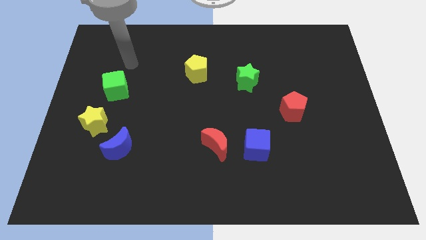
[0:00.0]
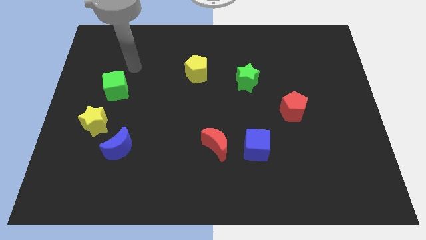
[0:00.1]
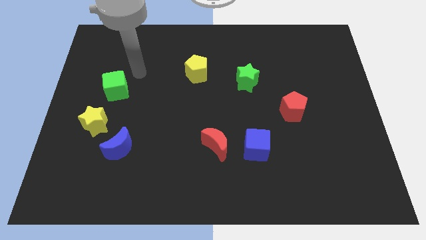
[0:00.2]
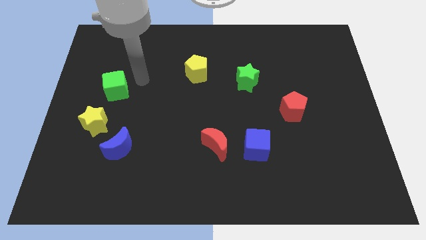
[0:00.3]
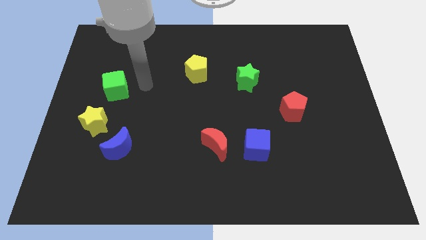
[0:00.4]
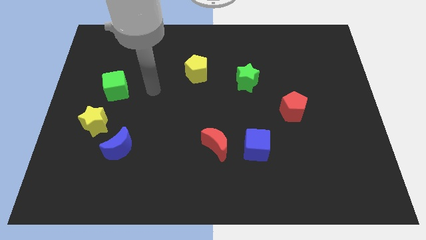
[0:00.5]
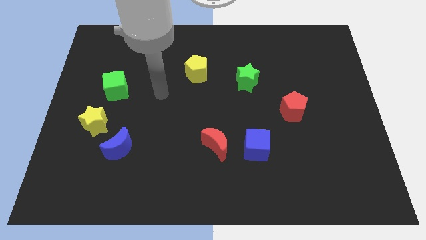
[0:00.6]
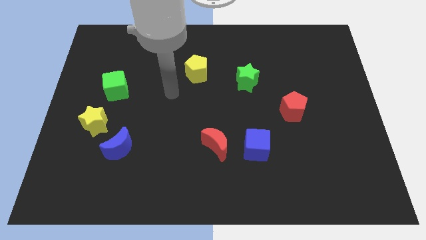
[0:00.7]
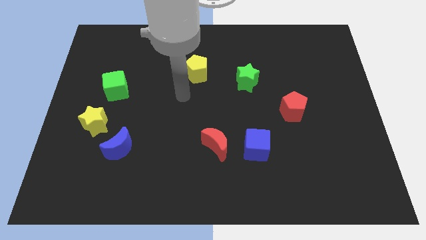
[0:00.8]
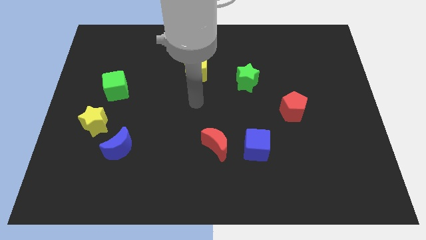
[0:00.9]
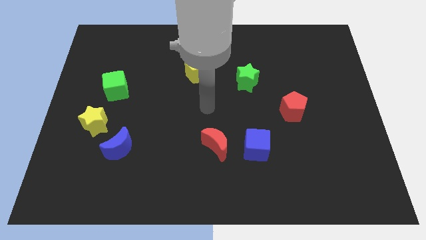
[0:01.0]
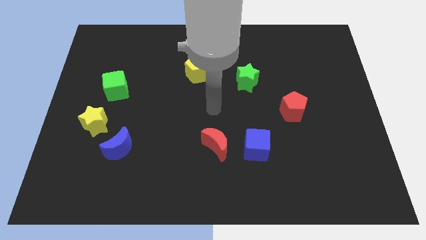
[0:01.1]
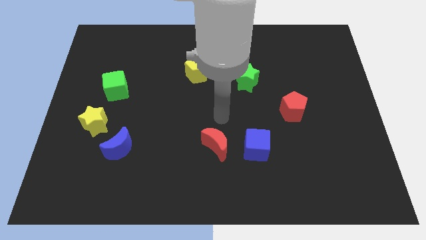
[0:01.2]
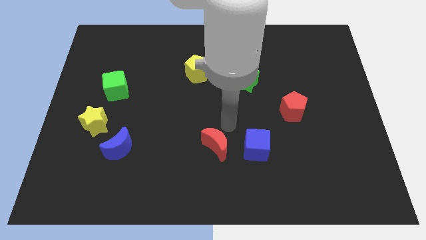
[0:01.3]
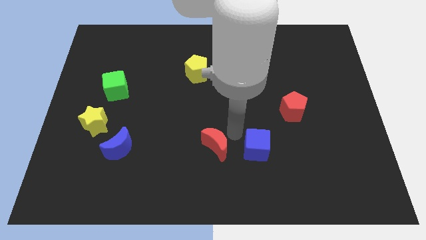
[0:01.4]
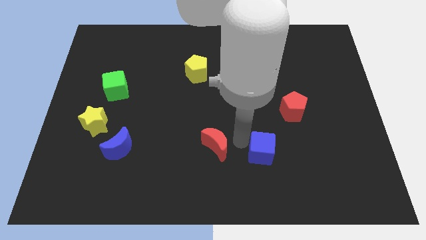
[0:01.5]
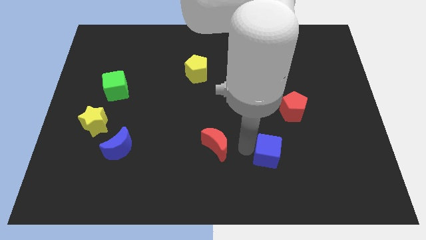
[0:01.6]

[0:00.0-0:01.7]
separate the red moon from the blue cube

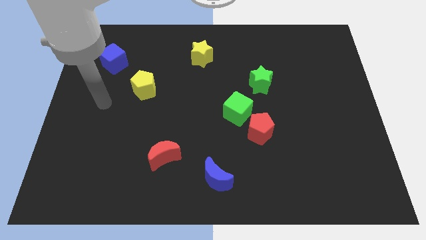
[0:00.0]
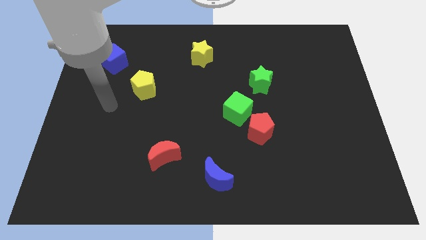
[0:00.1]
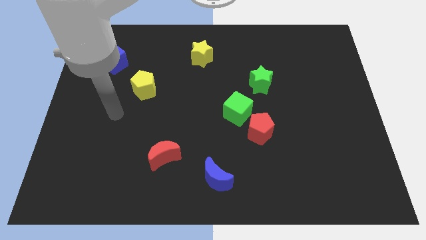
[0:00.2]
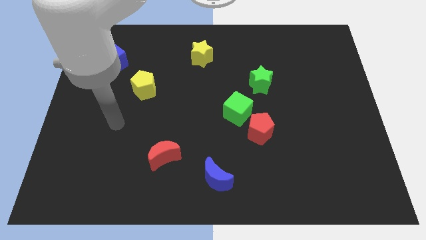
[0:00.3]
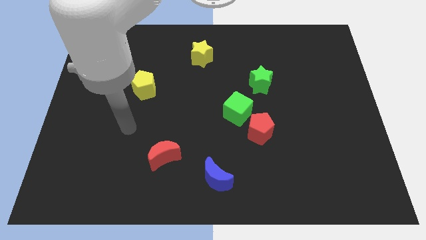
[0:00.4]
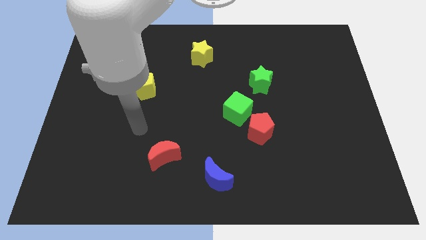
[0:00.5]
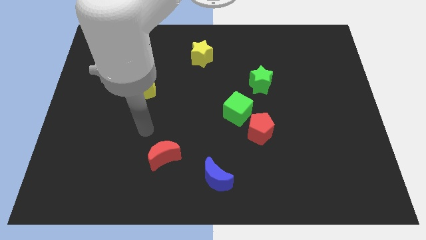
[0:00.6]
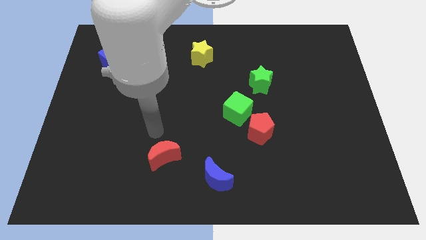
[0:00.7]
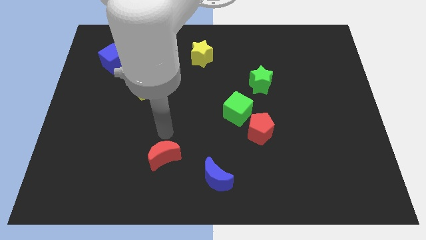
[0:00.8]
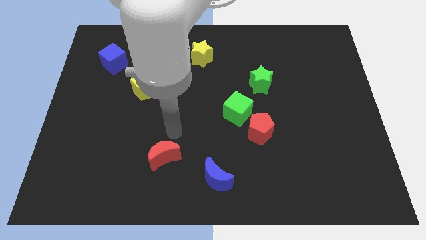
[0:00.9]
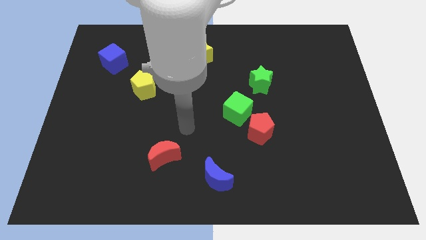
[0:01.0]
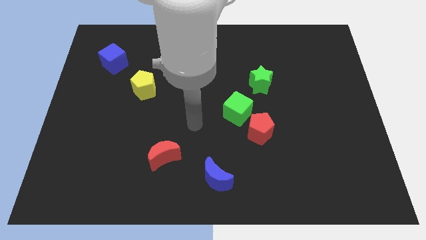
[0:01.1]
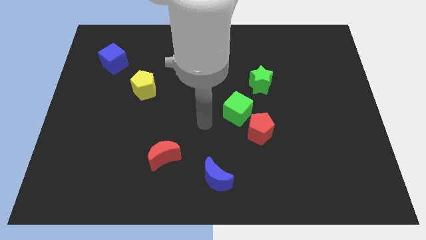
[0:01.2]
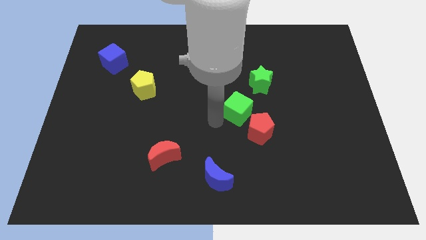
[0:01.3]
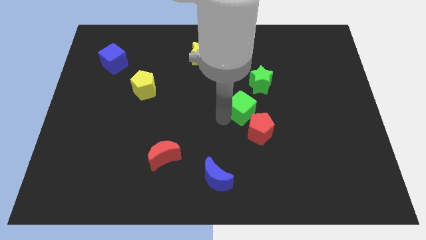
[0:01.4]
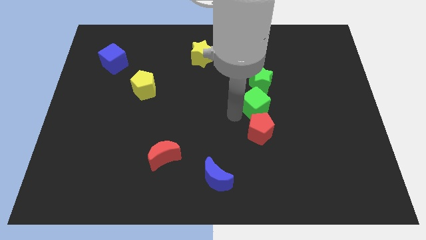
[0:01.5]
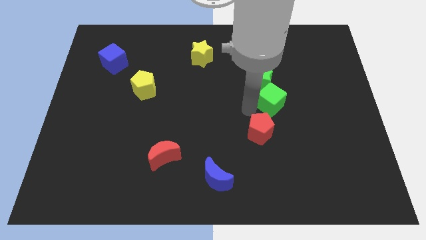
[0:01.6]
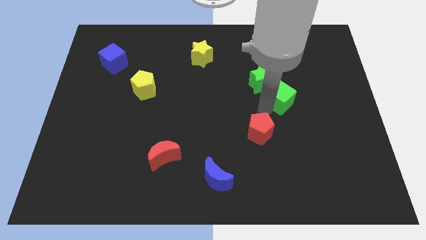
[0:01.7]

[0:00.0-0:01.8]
separate the red pentagon from the green cube

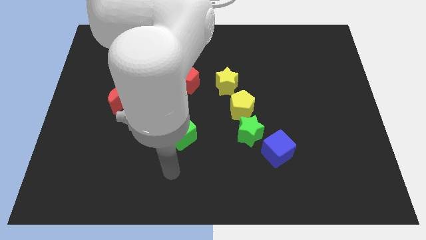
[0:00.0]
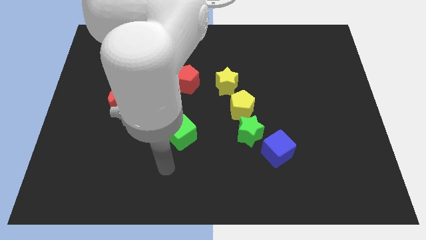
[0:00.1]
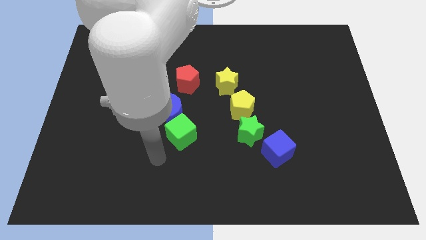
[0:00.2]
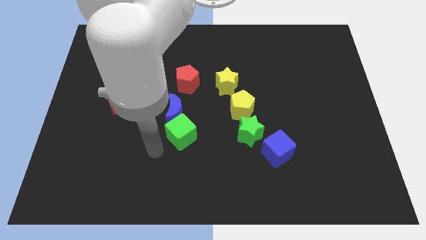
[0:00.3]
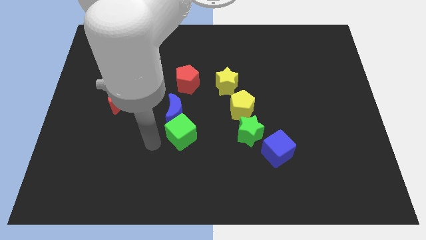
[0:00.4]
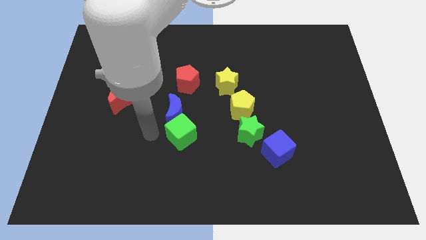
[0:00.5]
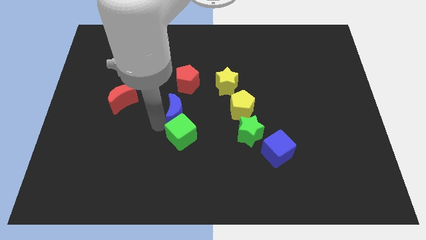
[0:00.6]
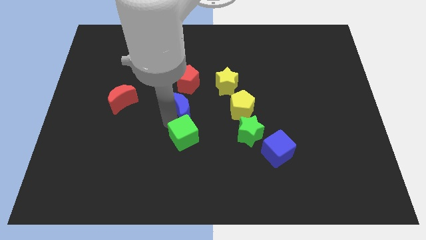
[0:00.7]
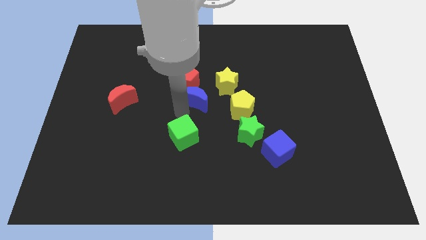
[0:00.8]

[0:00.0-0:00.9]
pull the green cube apart from the blue moon

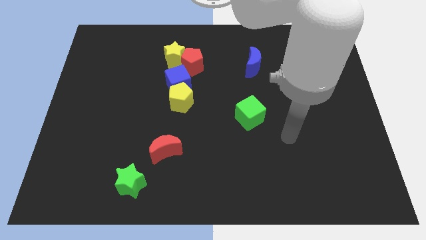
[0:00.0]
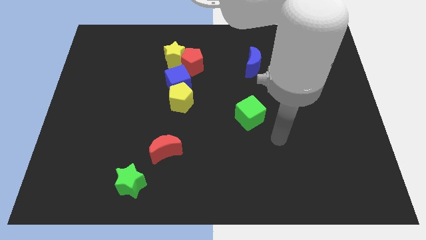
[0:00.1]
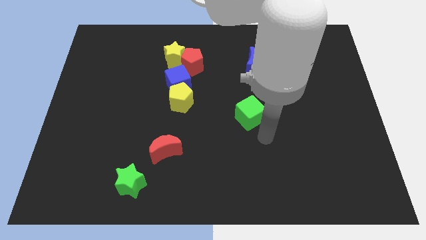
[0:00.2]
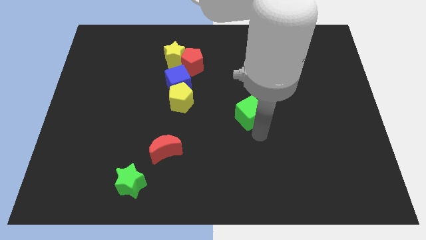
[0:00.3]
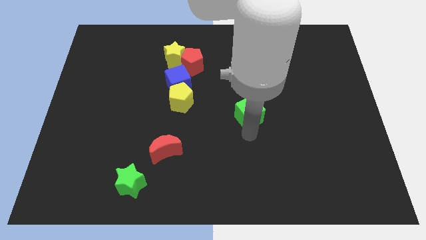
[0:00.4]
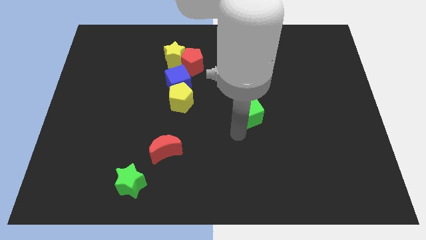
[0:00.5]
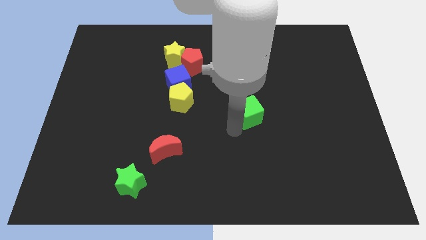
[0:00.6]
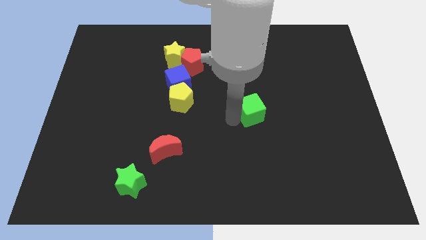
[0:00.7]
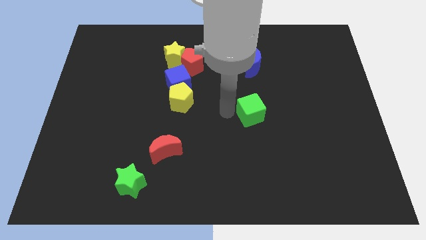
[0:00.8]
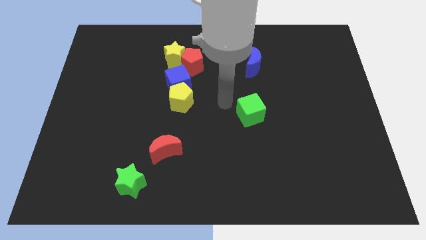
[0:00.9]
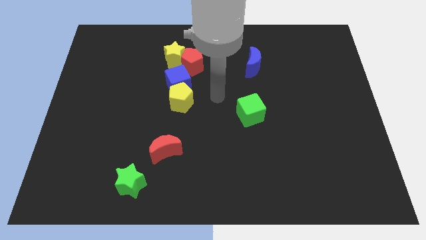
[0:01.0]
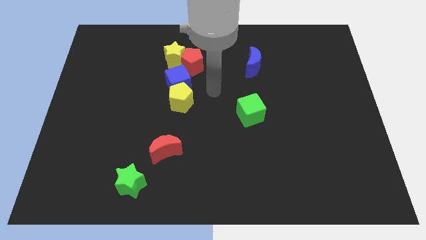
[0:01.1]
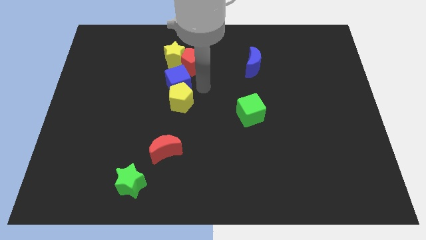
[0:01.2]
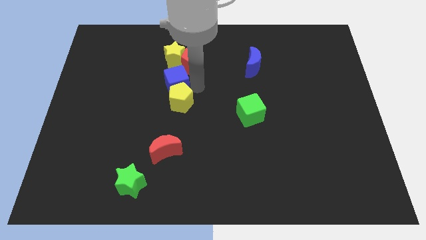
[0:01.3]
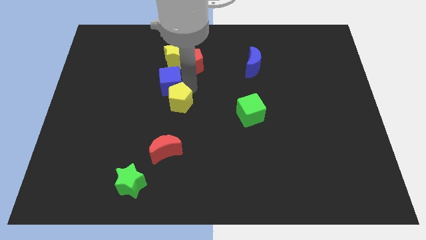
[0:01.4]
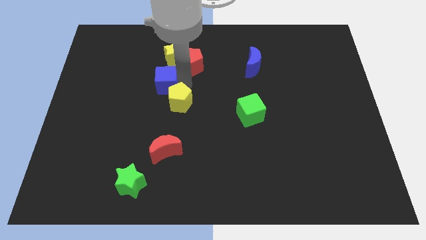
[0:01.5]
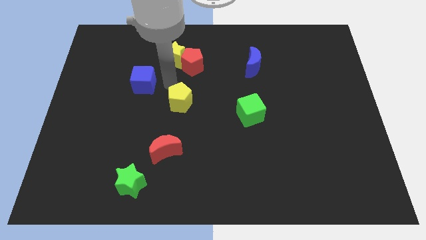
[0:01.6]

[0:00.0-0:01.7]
pull the yellow pentagon apart from the blue cube

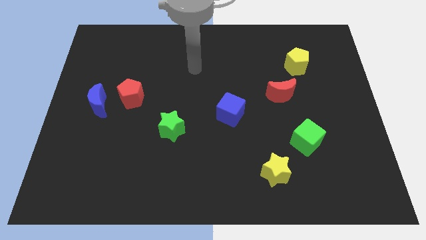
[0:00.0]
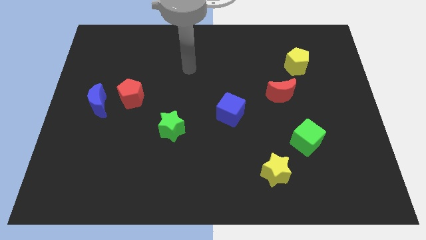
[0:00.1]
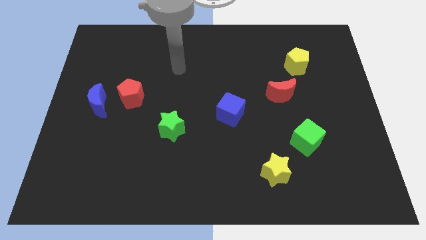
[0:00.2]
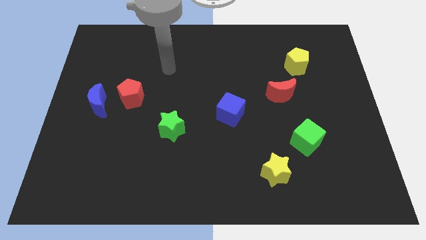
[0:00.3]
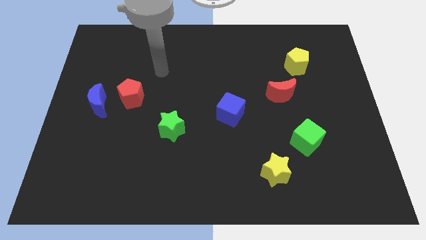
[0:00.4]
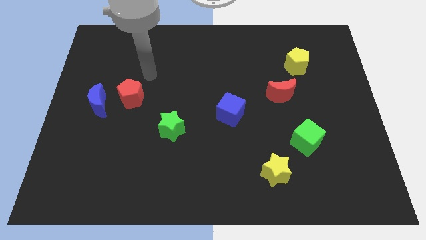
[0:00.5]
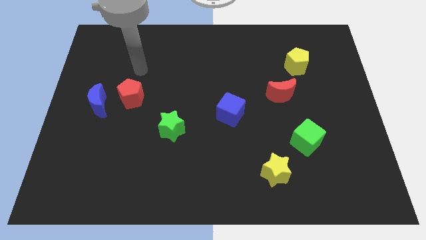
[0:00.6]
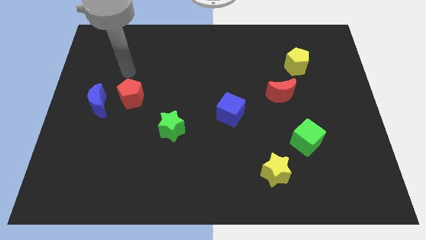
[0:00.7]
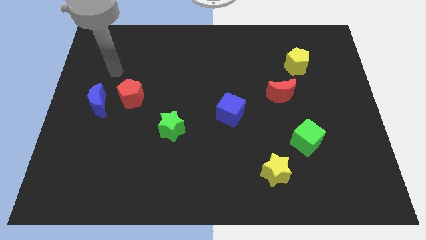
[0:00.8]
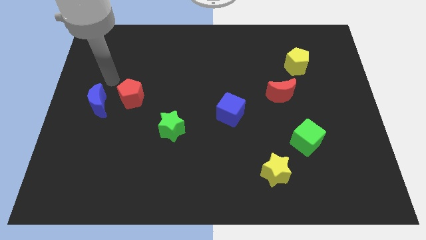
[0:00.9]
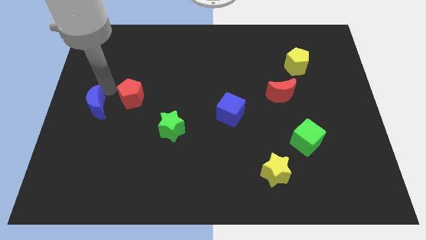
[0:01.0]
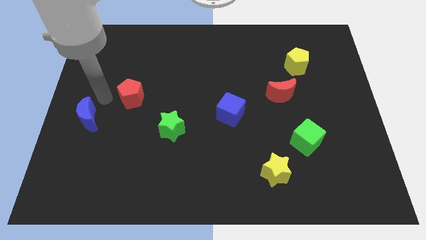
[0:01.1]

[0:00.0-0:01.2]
separate the red pentagon from the blue moon

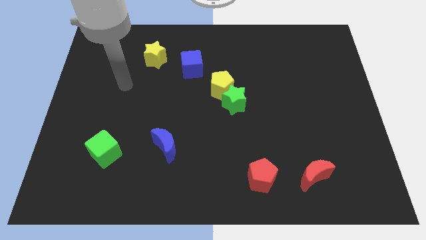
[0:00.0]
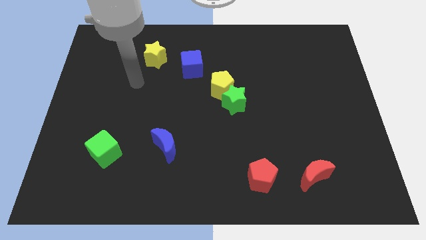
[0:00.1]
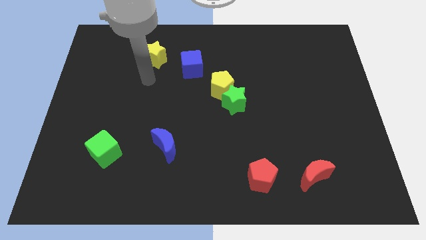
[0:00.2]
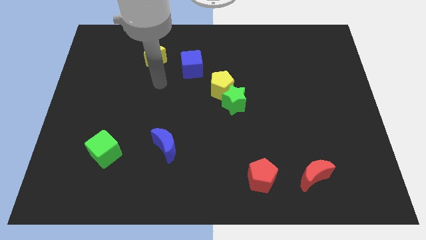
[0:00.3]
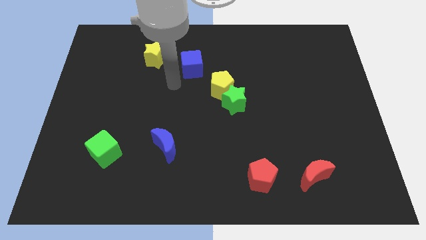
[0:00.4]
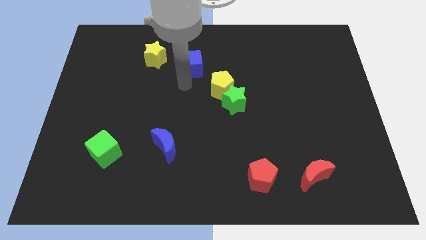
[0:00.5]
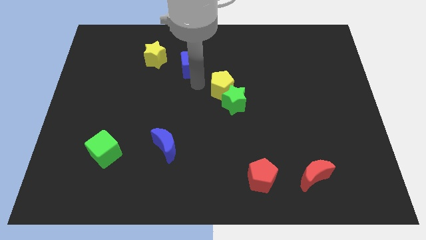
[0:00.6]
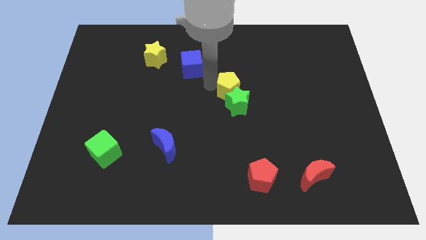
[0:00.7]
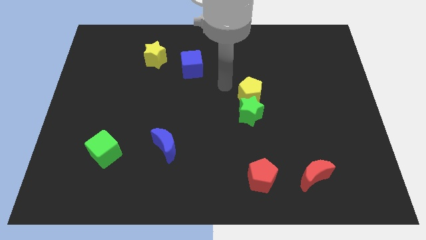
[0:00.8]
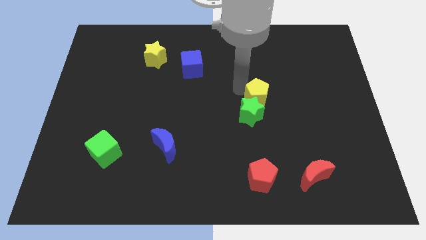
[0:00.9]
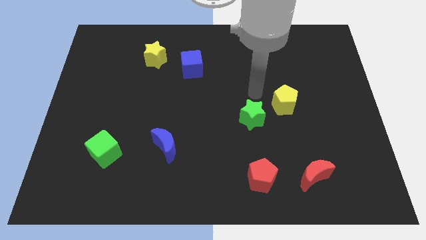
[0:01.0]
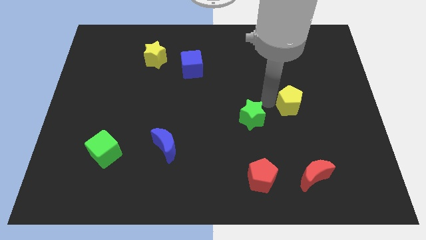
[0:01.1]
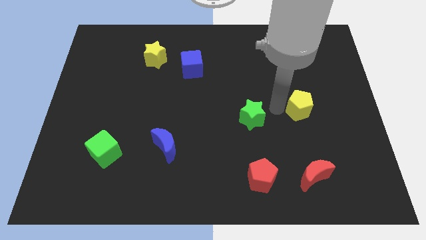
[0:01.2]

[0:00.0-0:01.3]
separate the green star from the yellow pentagon

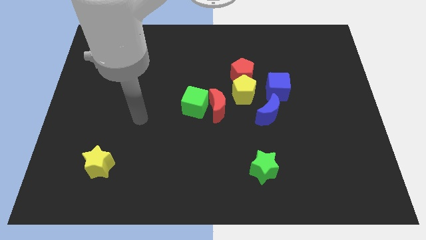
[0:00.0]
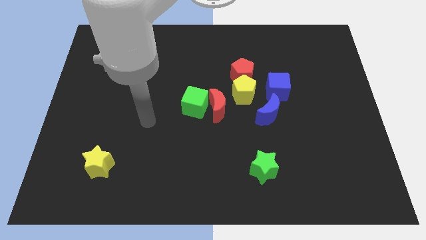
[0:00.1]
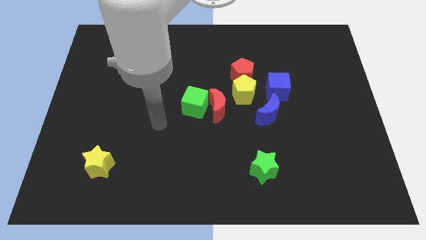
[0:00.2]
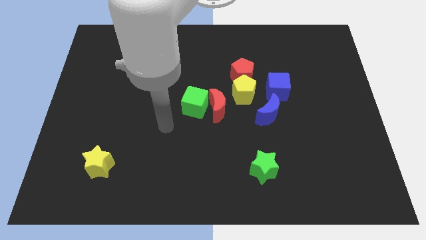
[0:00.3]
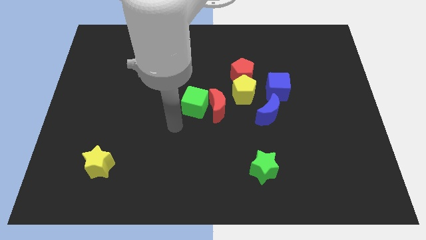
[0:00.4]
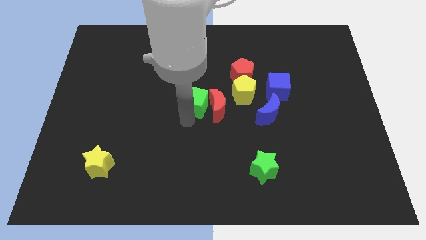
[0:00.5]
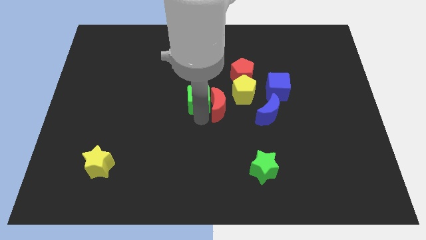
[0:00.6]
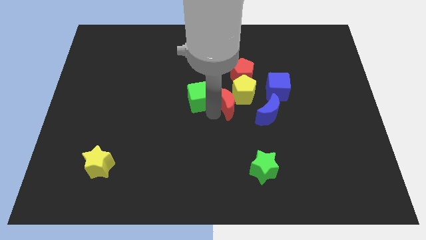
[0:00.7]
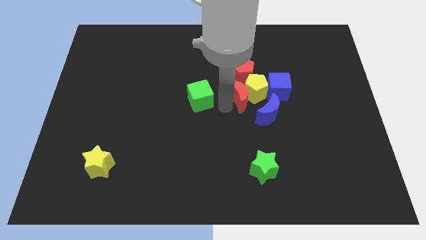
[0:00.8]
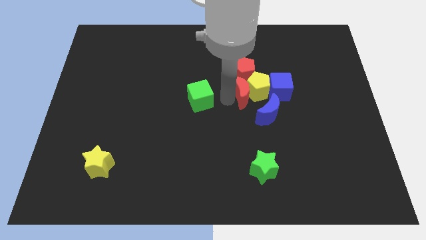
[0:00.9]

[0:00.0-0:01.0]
pull the green cube apart from the red moon
